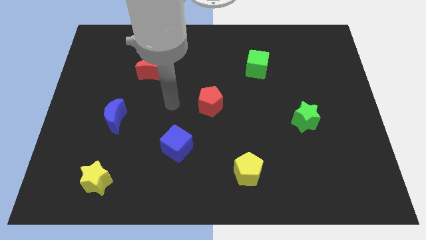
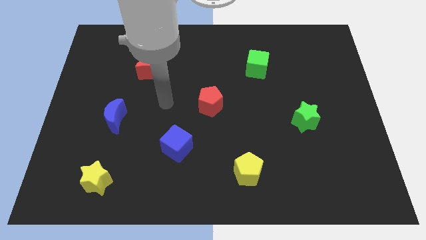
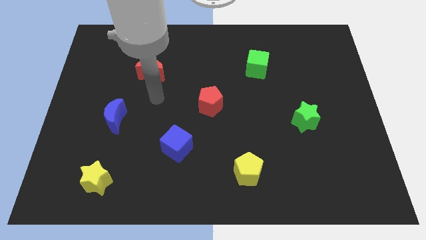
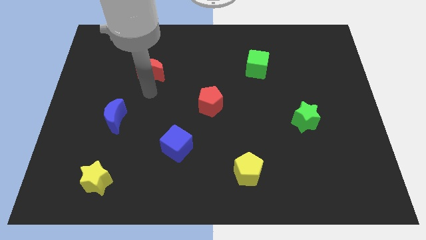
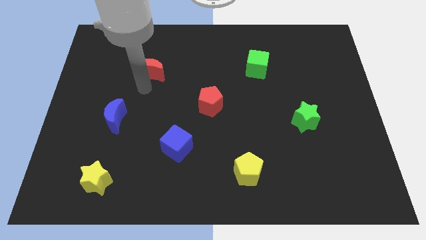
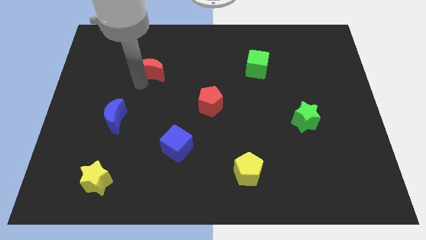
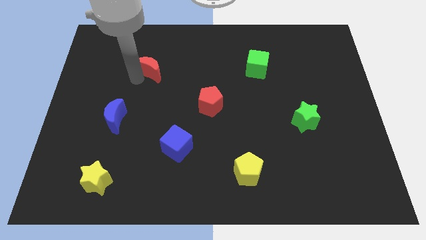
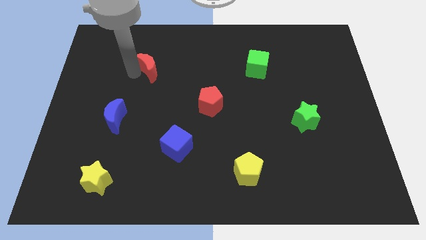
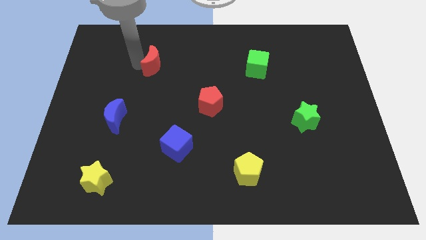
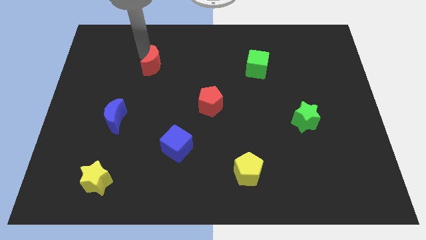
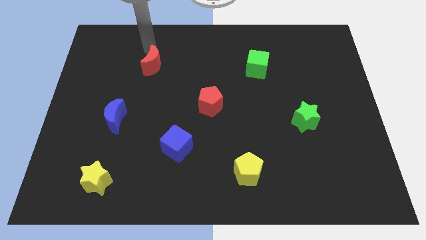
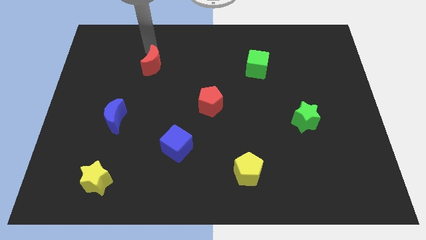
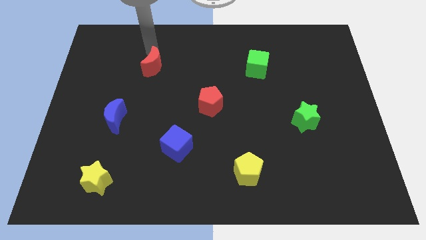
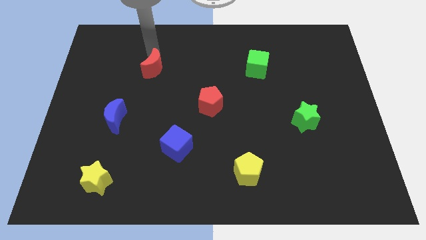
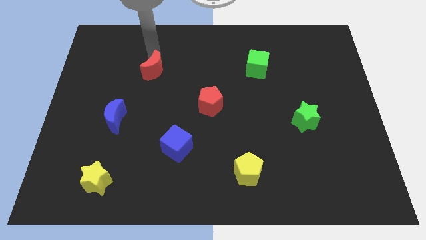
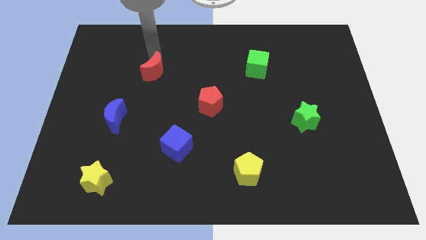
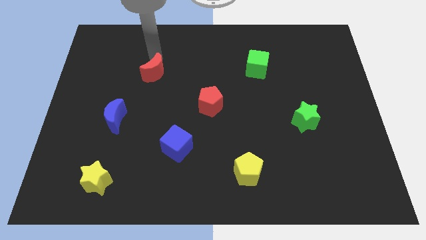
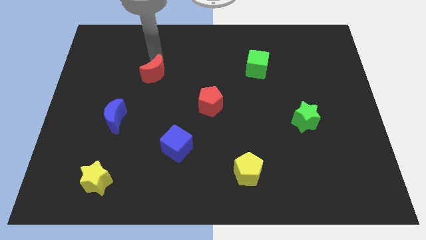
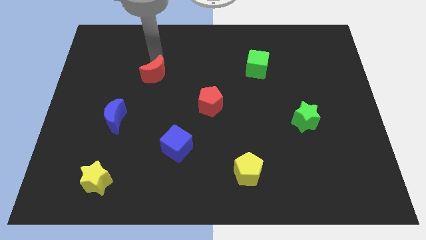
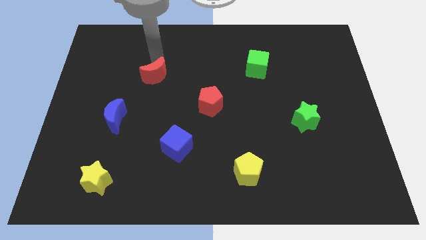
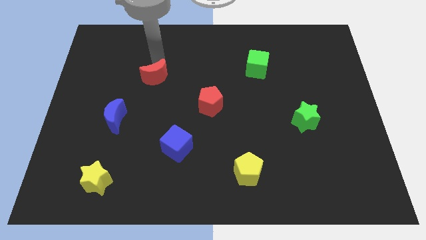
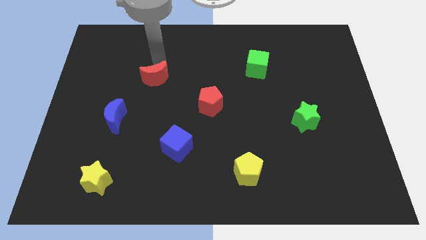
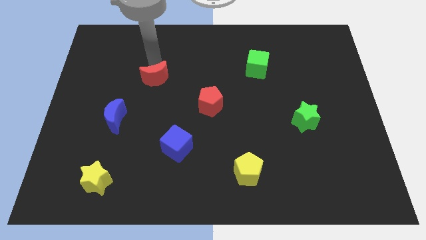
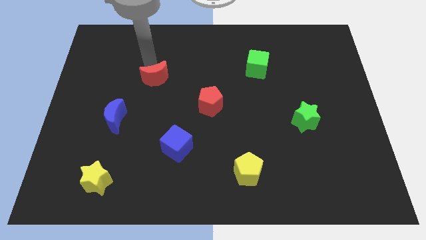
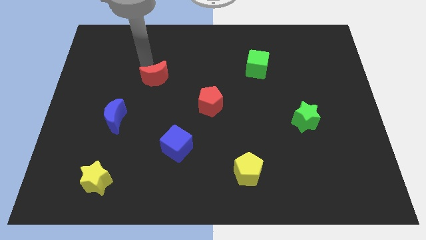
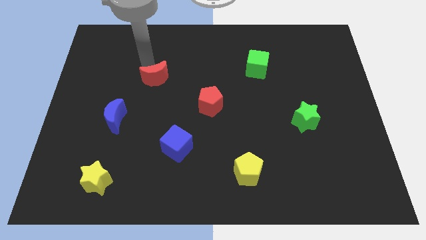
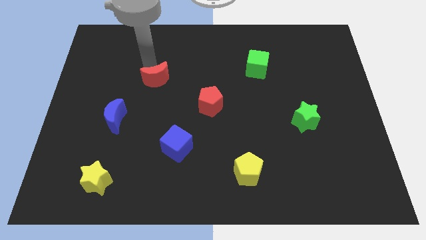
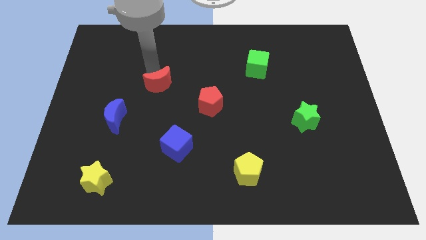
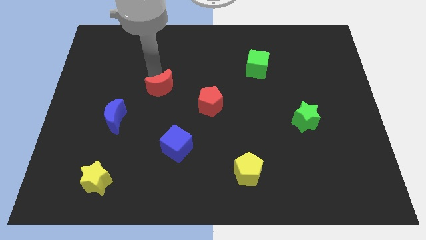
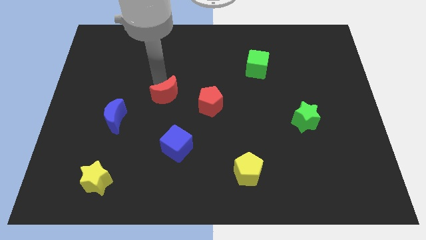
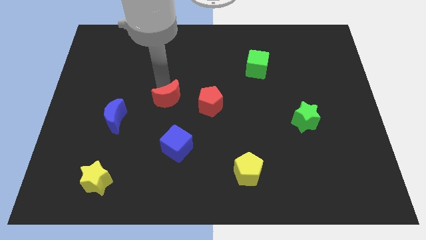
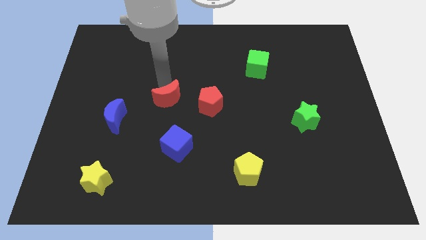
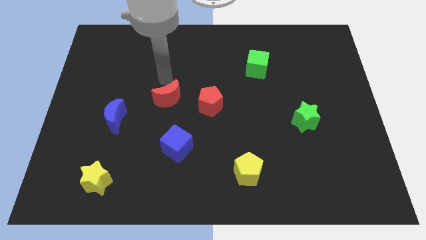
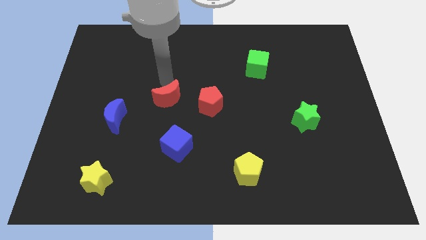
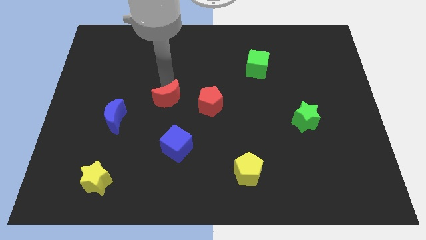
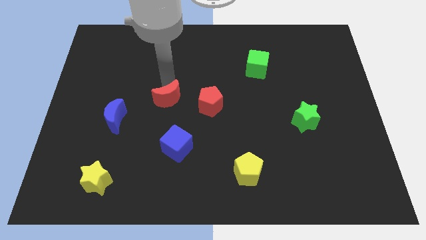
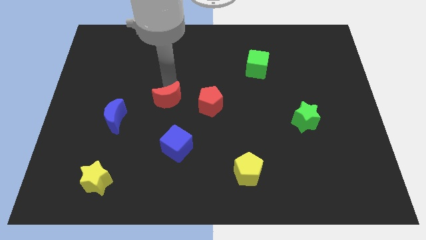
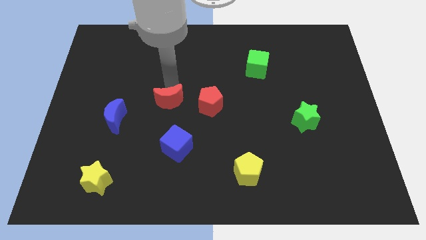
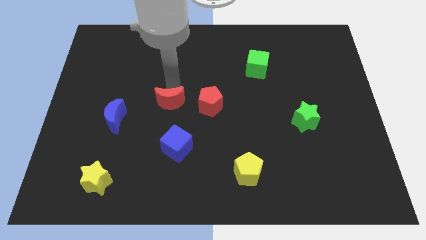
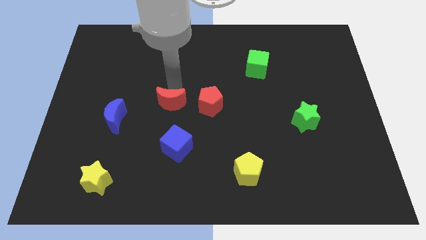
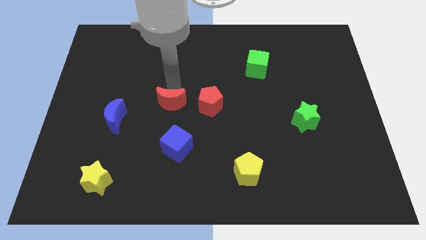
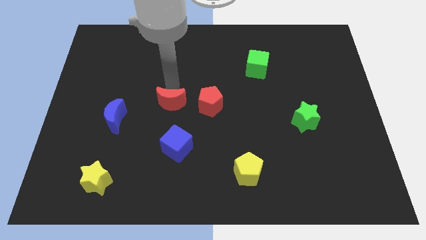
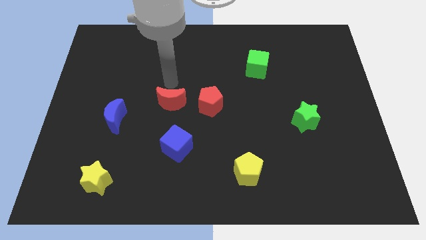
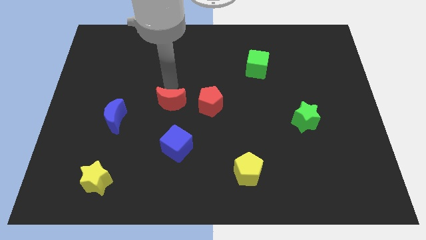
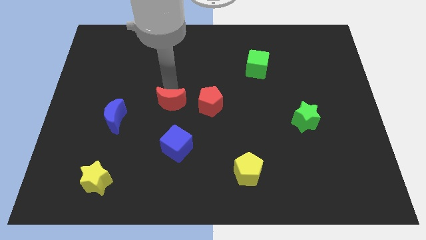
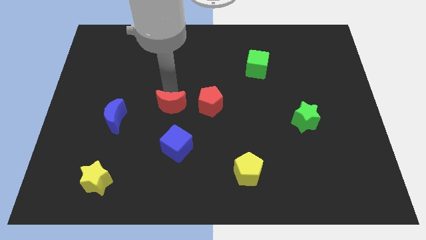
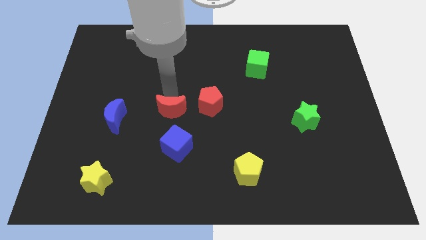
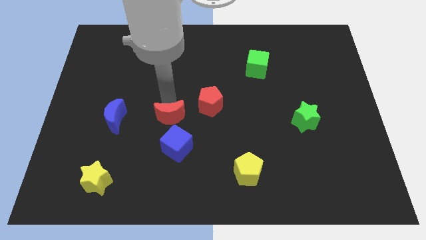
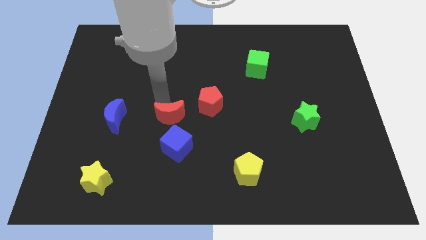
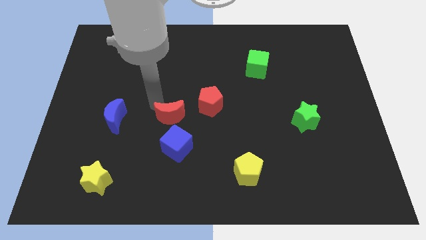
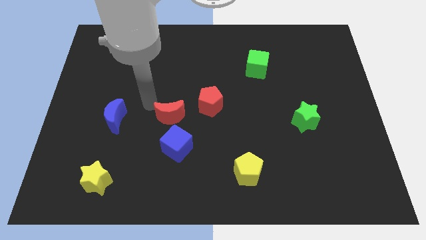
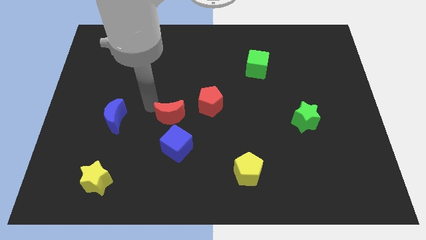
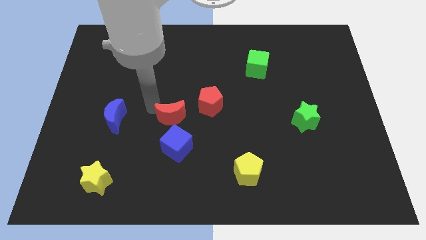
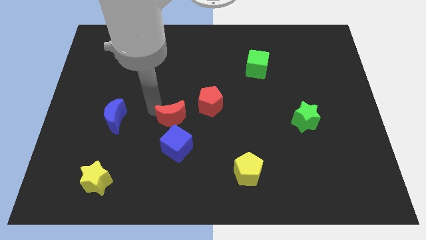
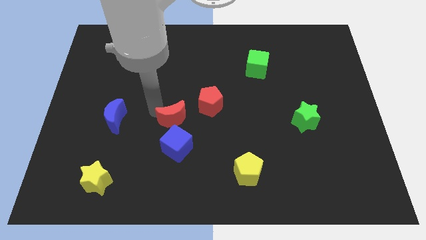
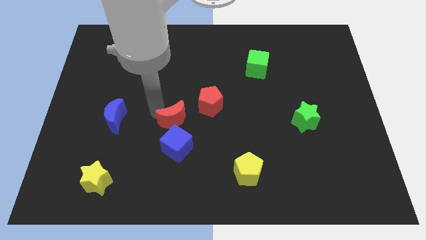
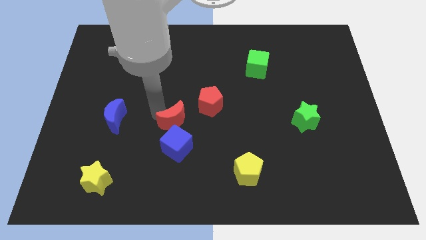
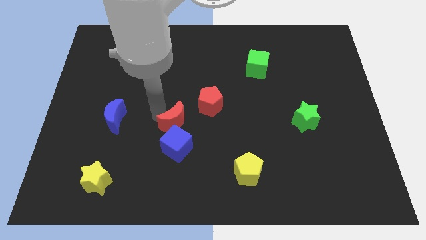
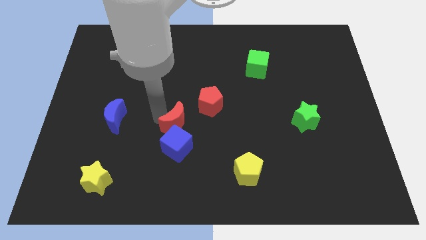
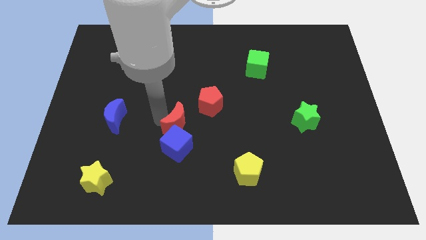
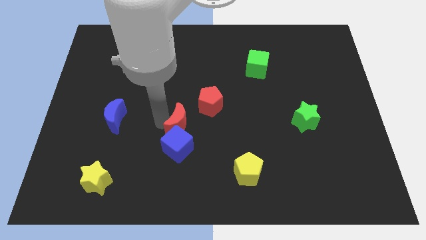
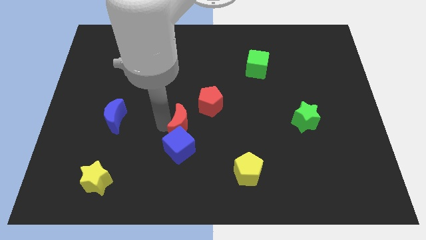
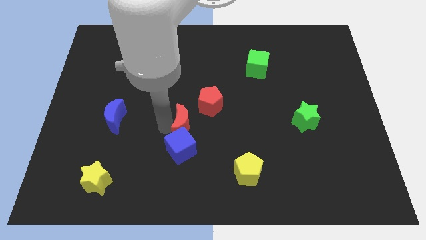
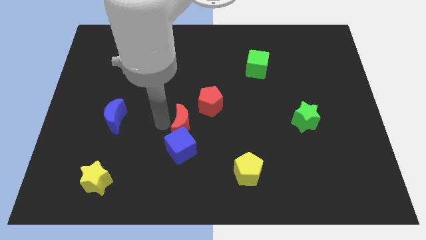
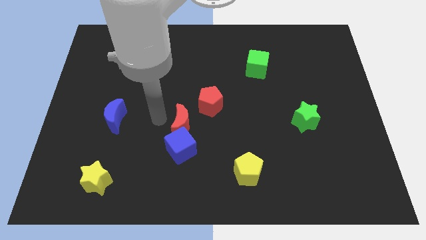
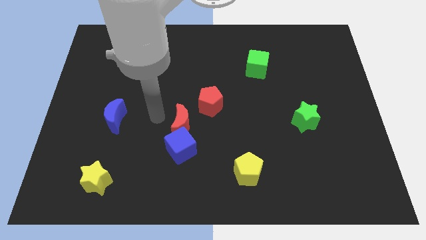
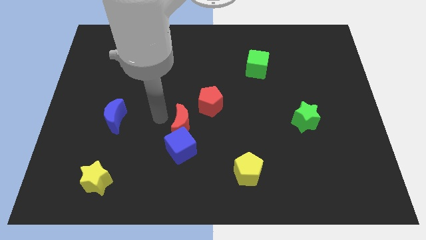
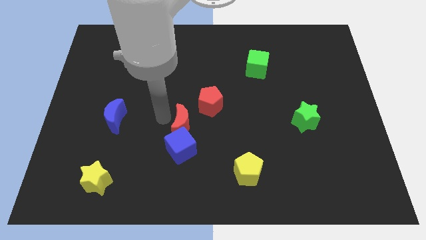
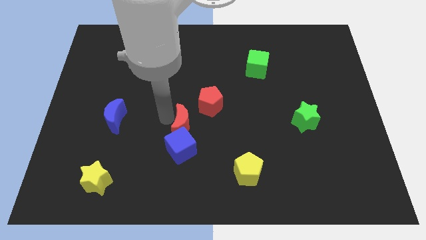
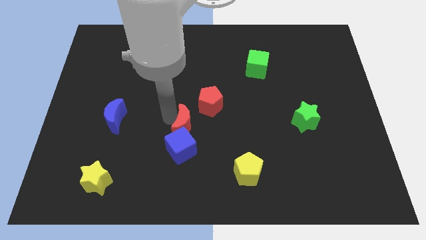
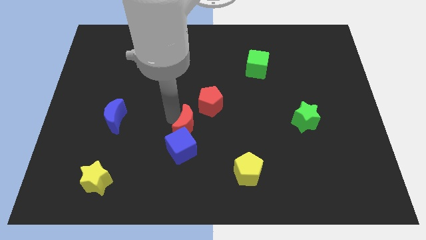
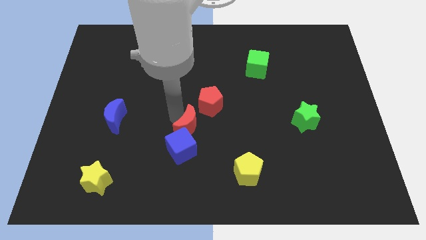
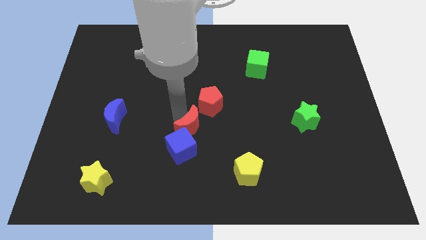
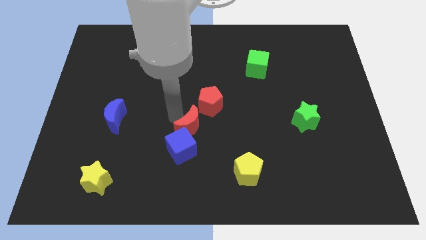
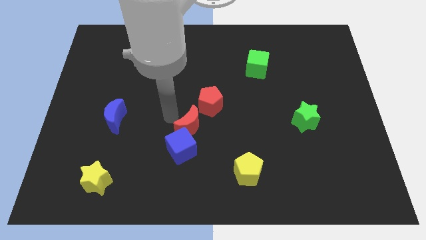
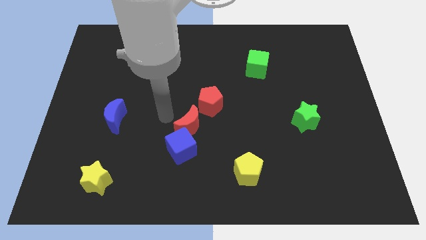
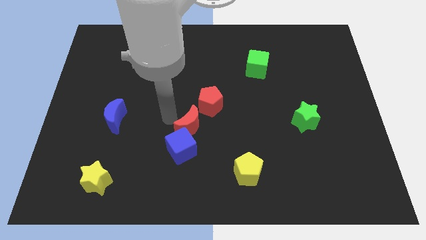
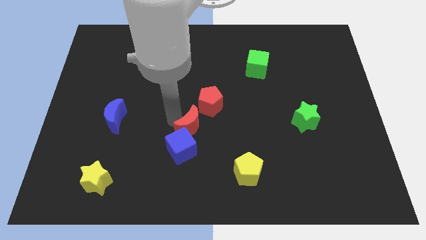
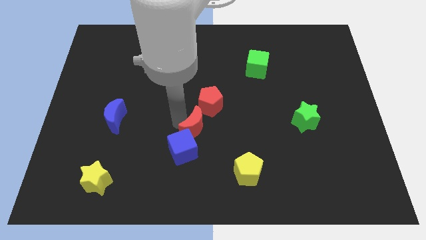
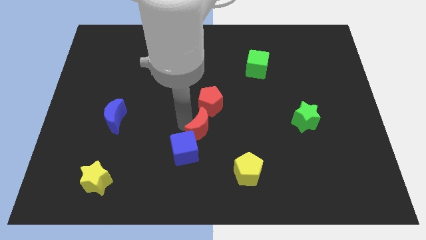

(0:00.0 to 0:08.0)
push the red moon down and then right
